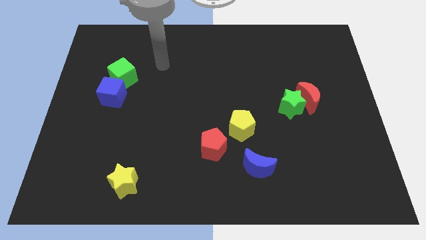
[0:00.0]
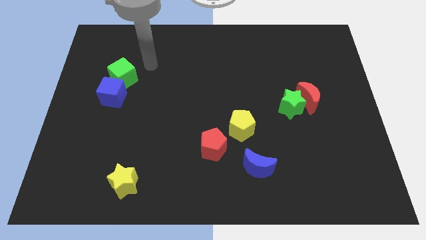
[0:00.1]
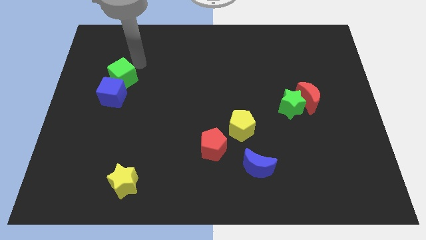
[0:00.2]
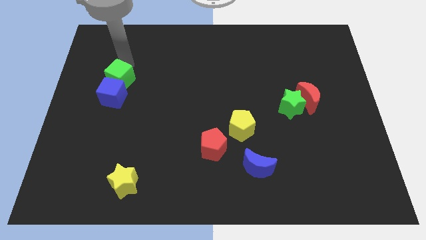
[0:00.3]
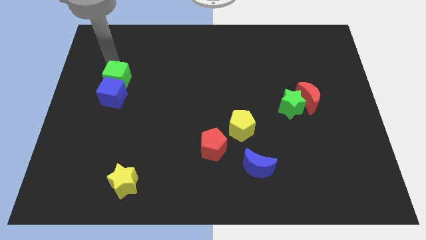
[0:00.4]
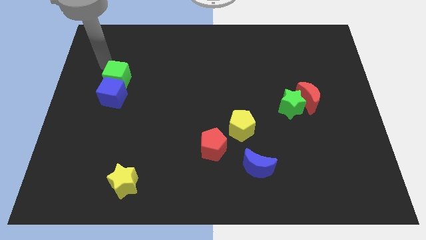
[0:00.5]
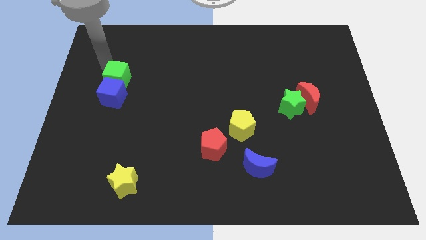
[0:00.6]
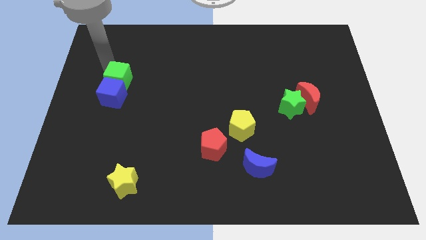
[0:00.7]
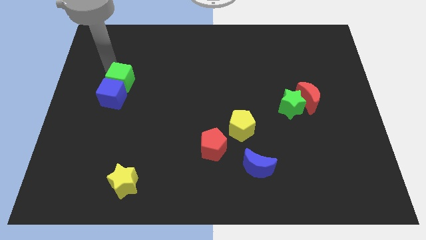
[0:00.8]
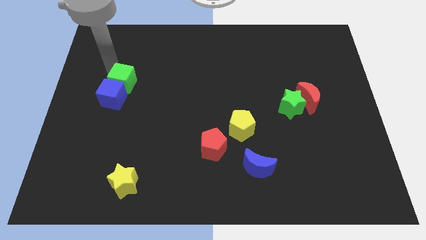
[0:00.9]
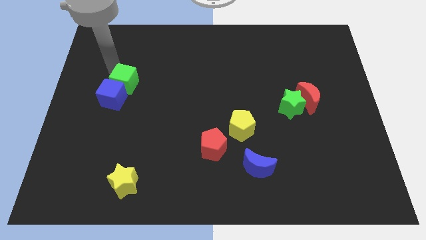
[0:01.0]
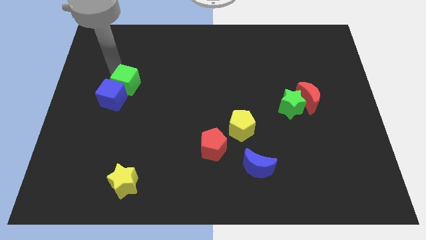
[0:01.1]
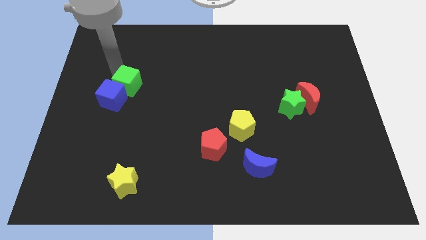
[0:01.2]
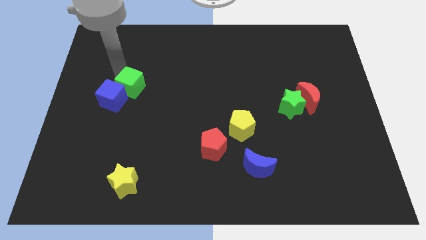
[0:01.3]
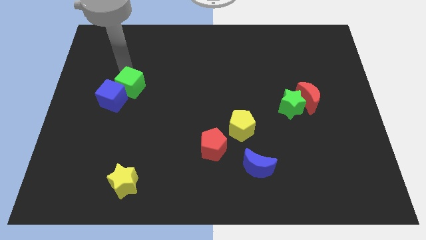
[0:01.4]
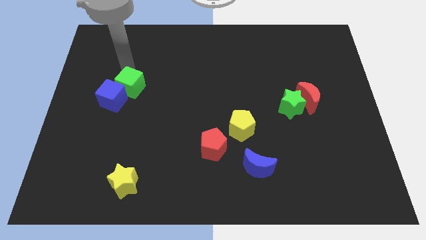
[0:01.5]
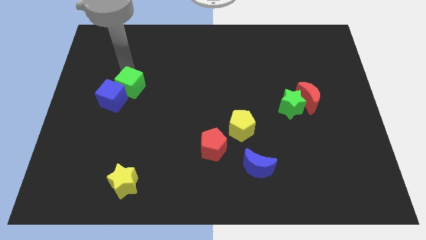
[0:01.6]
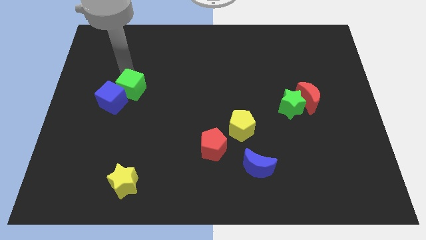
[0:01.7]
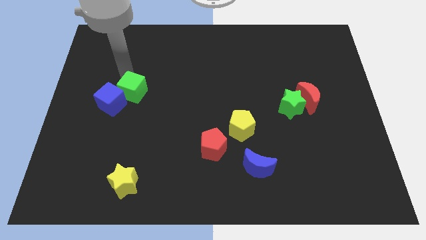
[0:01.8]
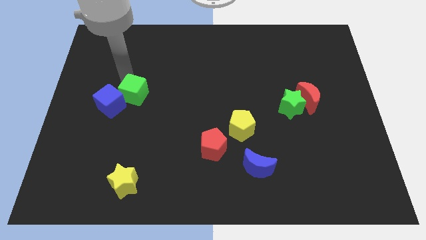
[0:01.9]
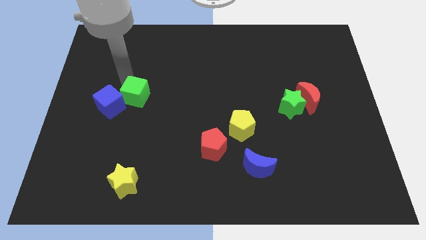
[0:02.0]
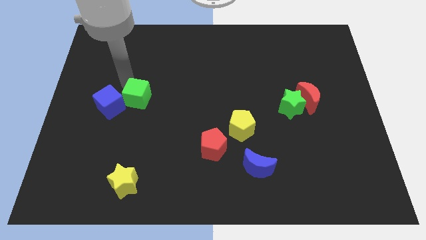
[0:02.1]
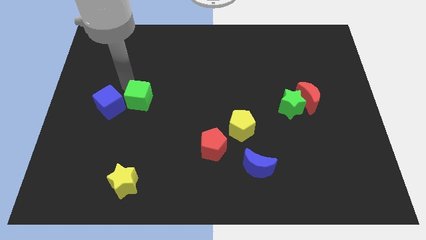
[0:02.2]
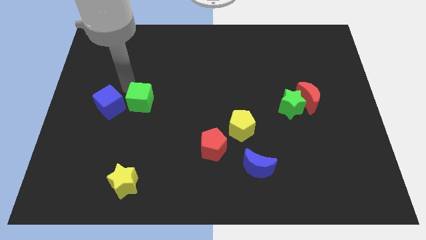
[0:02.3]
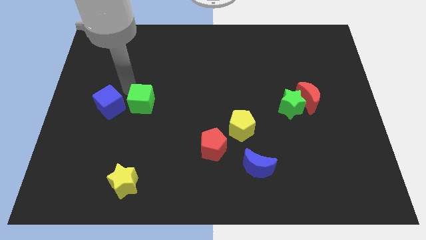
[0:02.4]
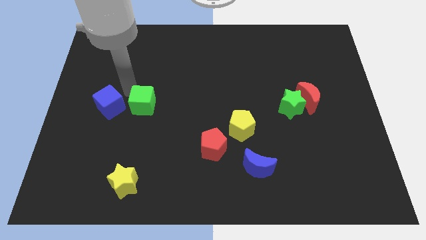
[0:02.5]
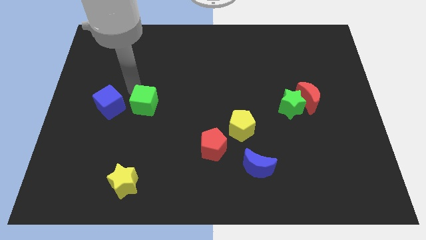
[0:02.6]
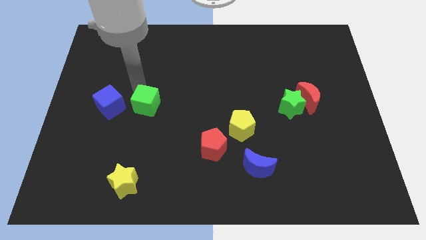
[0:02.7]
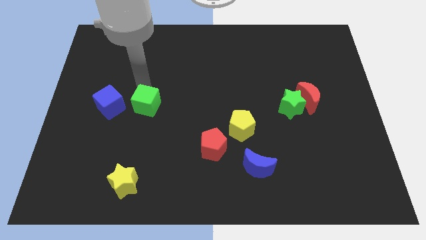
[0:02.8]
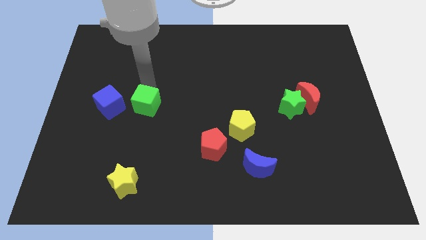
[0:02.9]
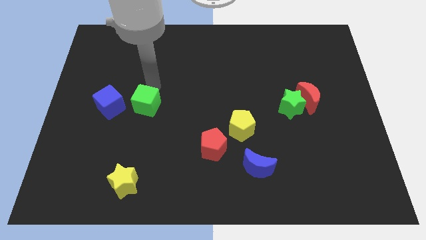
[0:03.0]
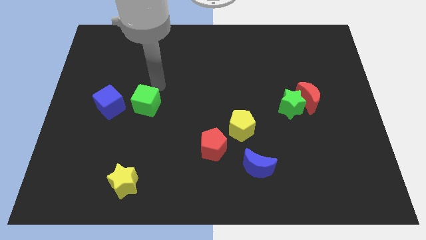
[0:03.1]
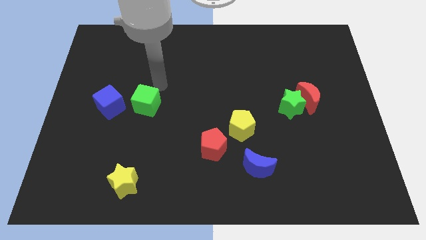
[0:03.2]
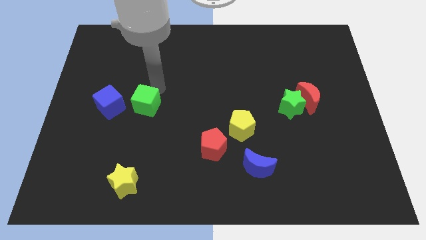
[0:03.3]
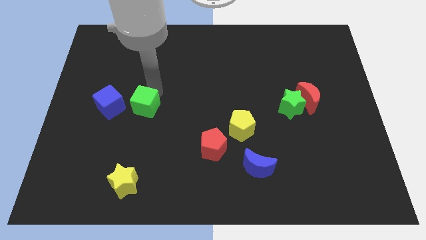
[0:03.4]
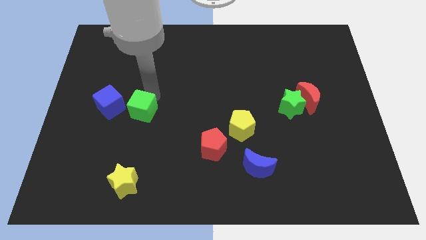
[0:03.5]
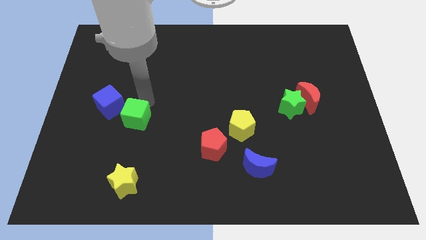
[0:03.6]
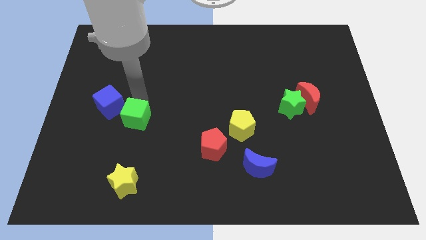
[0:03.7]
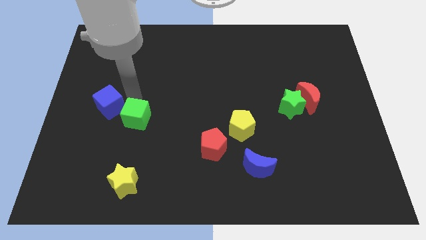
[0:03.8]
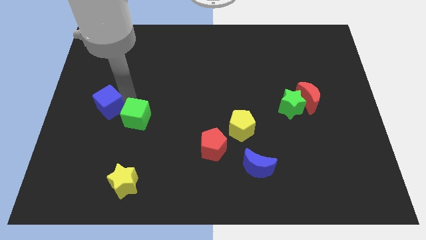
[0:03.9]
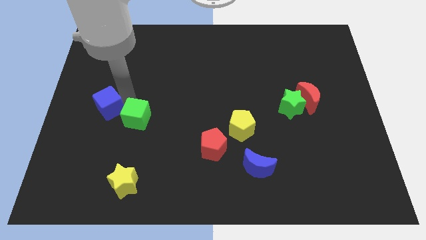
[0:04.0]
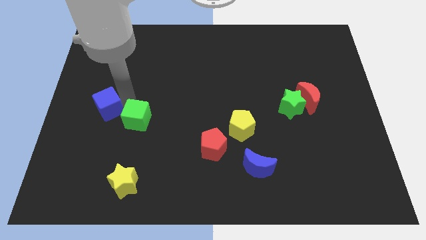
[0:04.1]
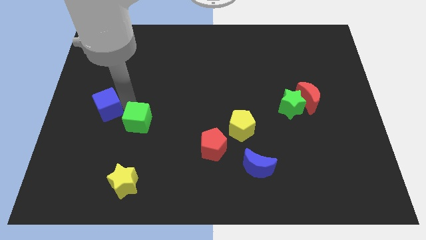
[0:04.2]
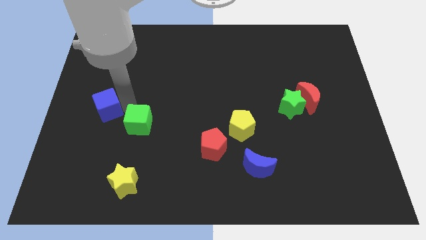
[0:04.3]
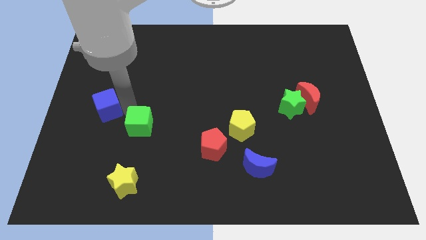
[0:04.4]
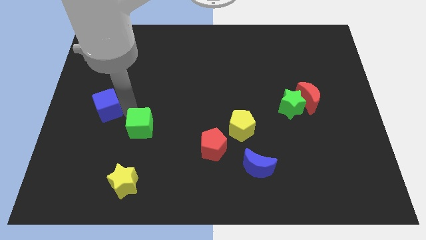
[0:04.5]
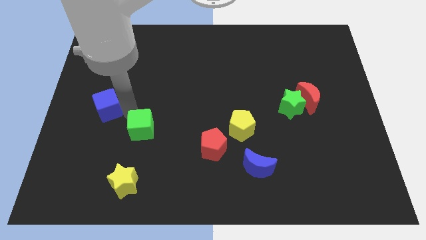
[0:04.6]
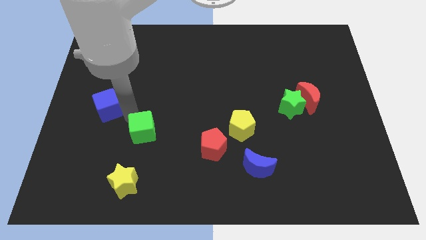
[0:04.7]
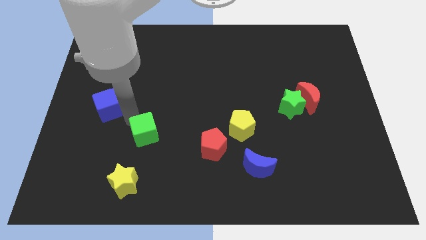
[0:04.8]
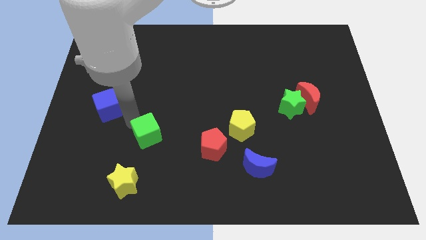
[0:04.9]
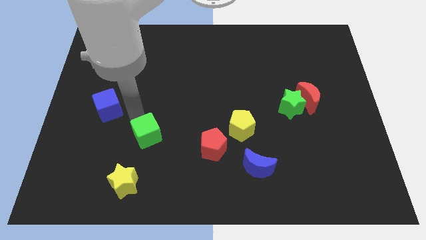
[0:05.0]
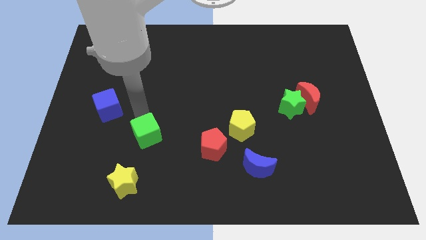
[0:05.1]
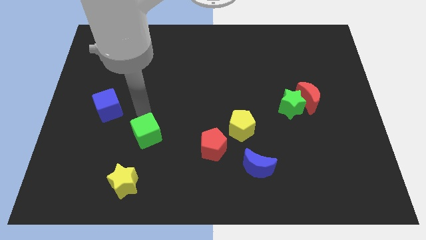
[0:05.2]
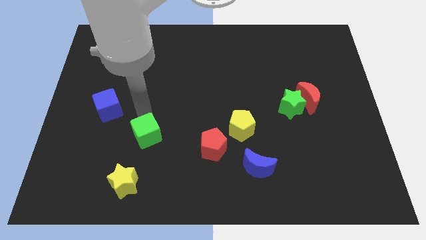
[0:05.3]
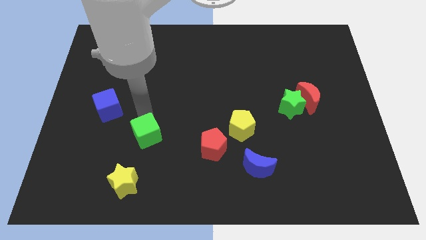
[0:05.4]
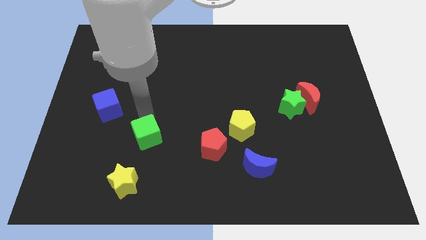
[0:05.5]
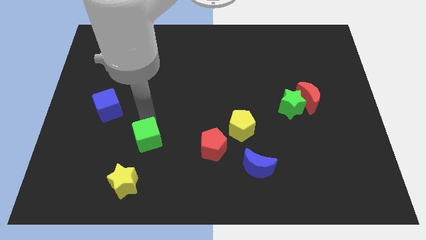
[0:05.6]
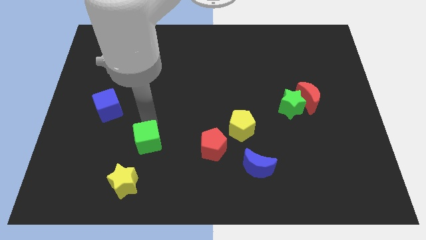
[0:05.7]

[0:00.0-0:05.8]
put the green cube to the top right side of the yellow star

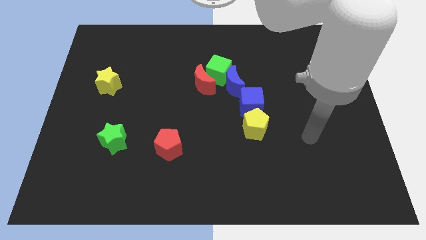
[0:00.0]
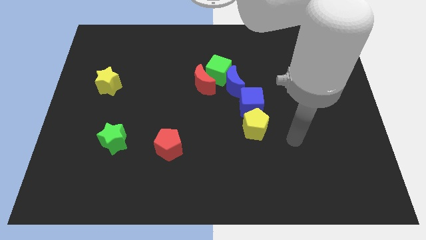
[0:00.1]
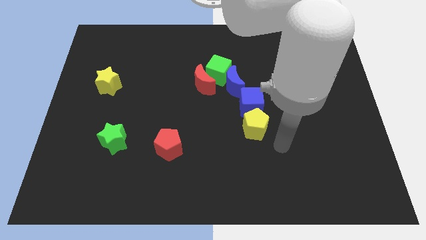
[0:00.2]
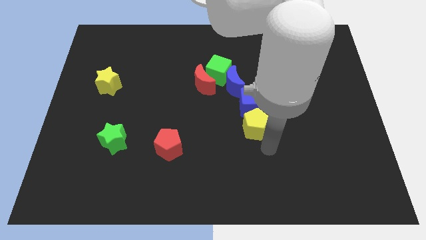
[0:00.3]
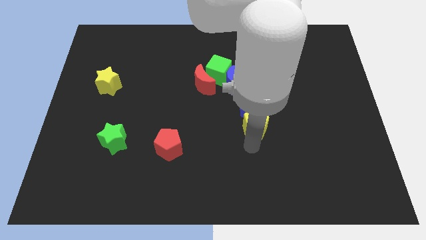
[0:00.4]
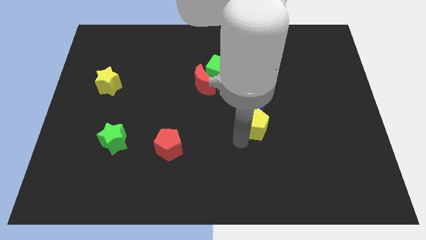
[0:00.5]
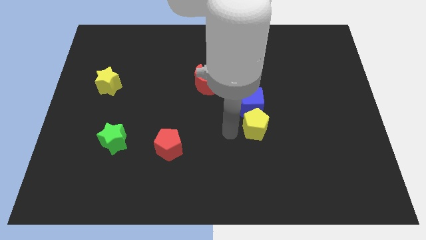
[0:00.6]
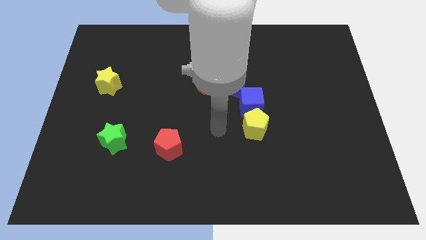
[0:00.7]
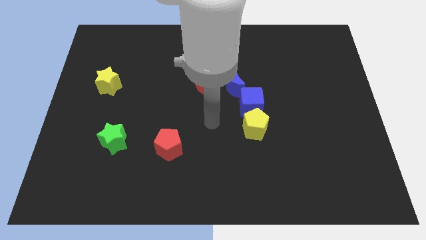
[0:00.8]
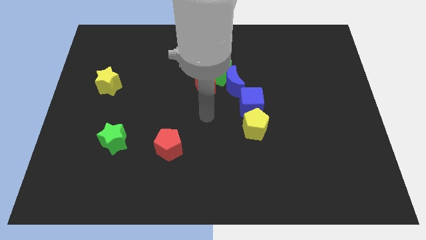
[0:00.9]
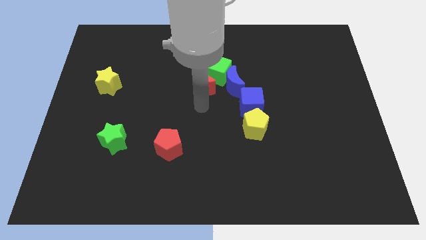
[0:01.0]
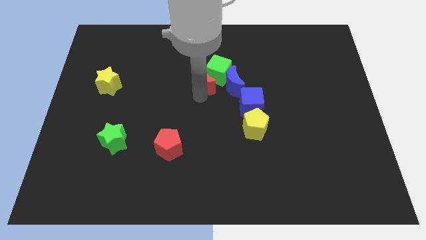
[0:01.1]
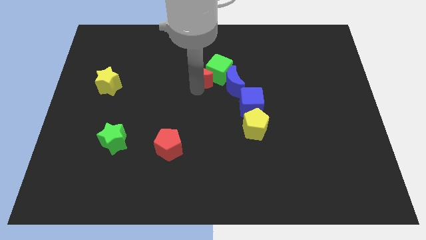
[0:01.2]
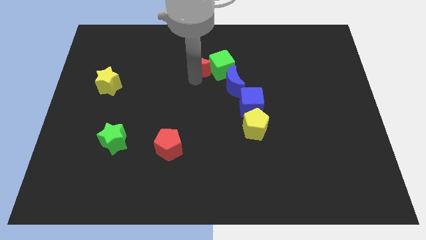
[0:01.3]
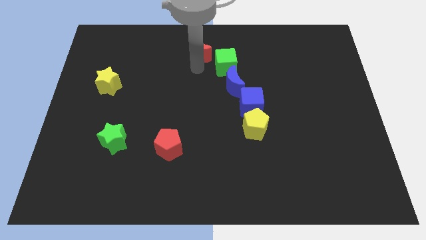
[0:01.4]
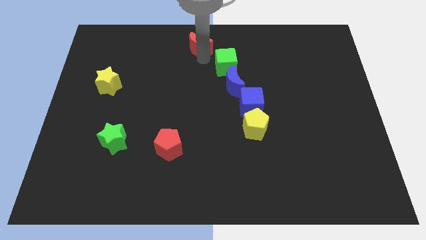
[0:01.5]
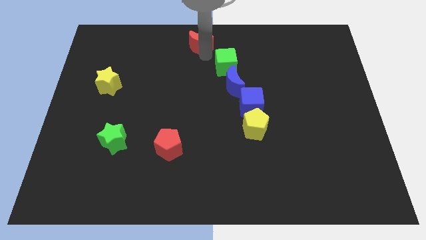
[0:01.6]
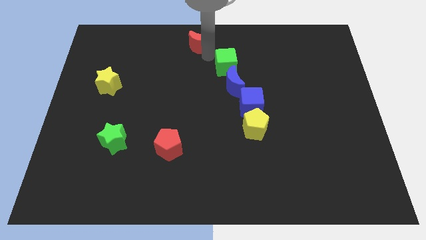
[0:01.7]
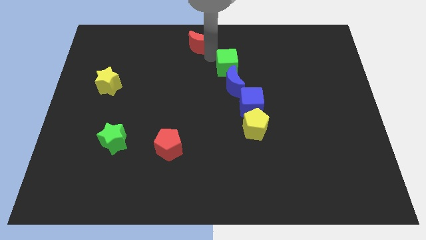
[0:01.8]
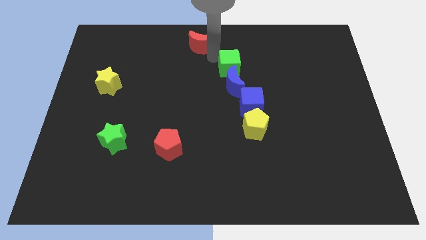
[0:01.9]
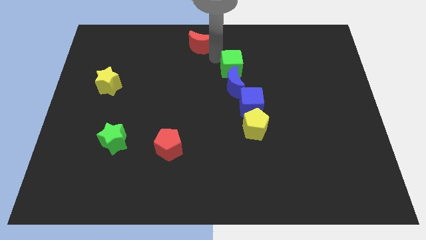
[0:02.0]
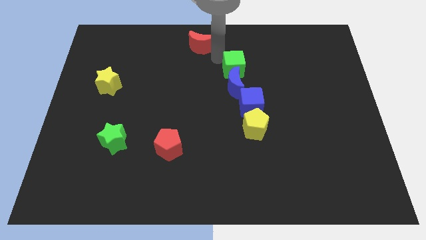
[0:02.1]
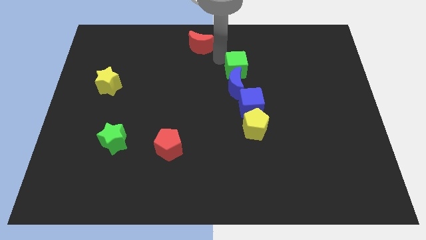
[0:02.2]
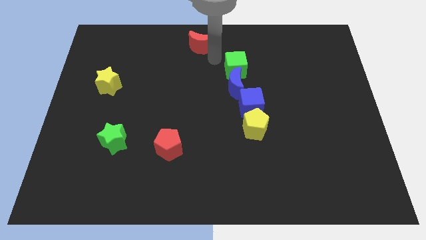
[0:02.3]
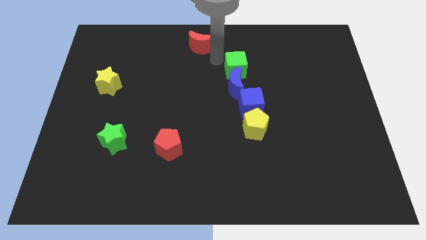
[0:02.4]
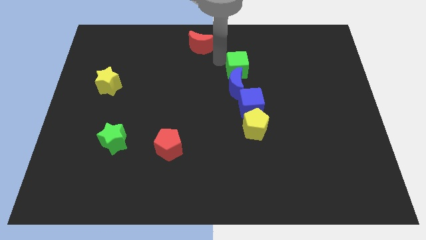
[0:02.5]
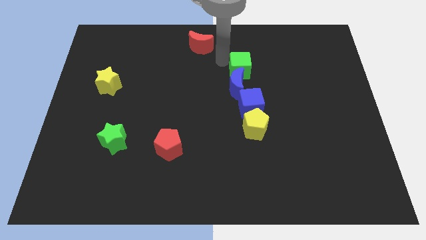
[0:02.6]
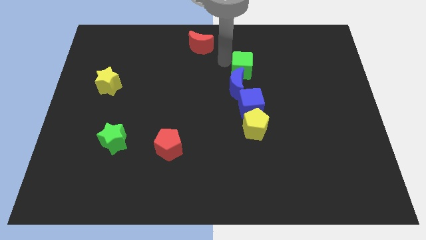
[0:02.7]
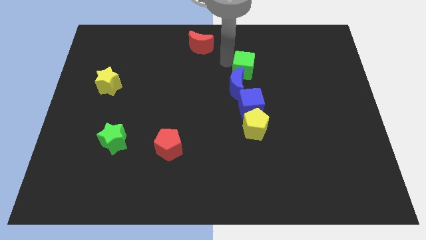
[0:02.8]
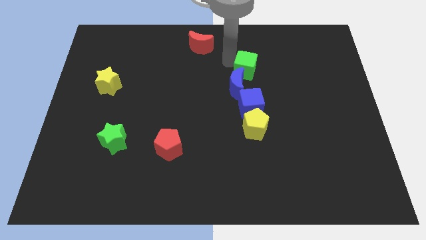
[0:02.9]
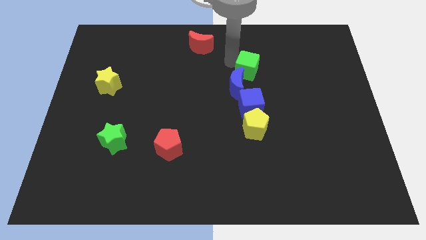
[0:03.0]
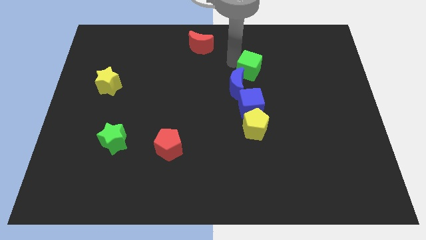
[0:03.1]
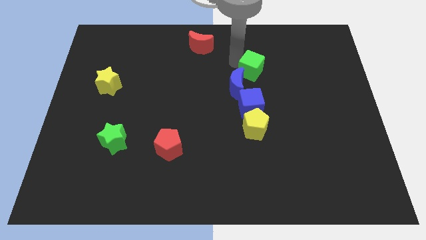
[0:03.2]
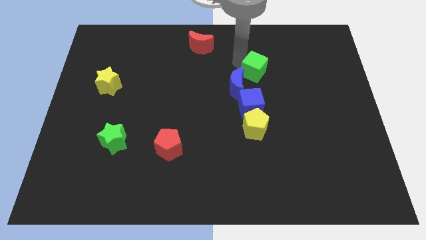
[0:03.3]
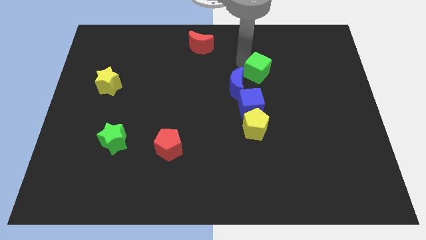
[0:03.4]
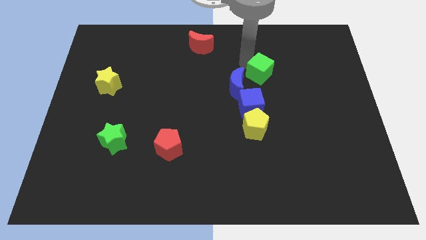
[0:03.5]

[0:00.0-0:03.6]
put the green cube just right of the blue moon
